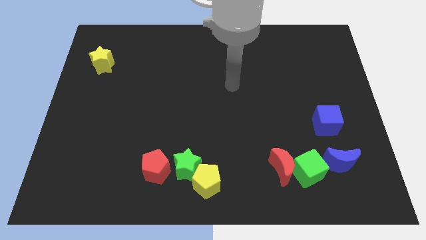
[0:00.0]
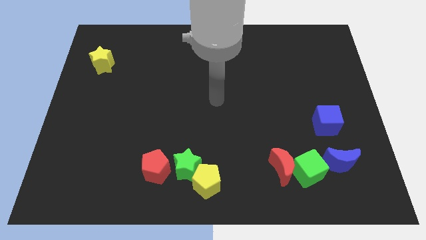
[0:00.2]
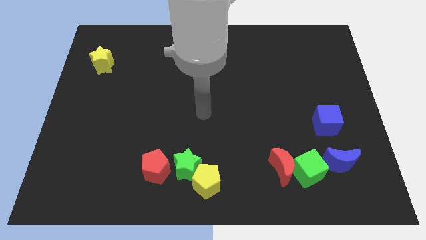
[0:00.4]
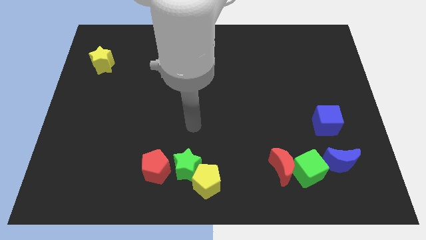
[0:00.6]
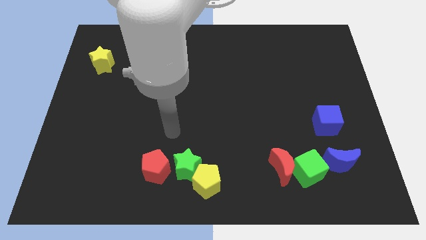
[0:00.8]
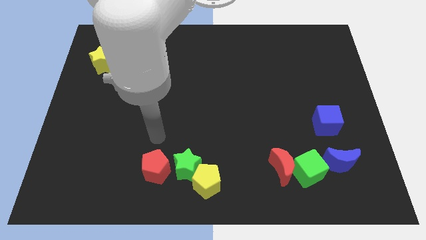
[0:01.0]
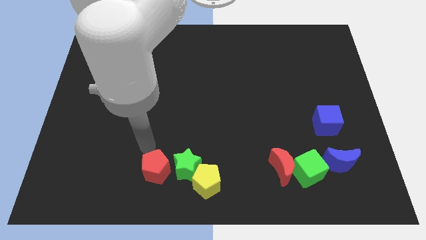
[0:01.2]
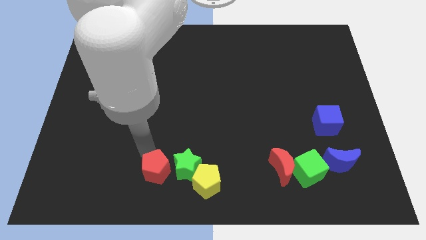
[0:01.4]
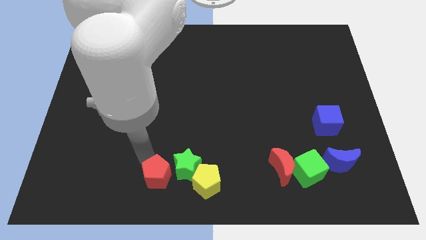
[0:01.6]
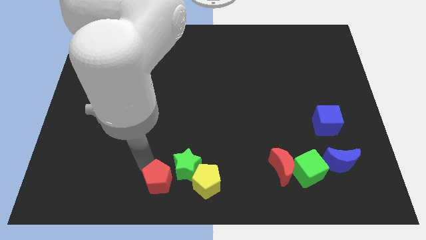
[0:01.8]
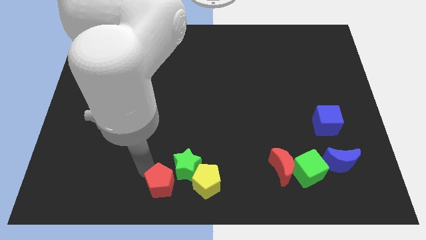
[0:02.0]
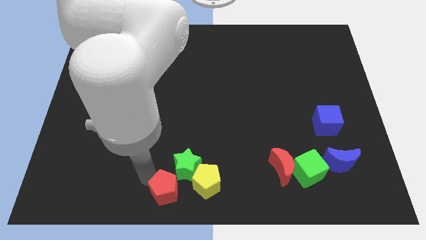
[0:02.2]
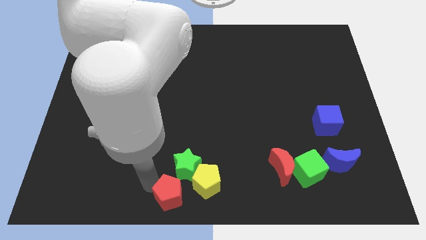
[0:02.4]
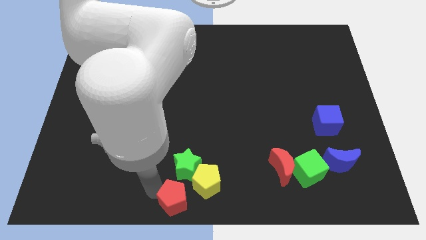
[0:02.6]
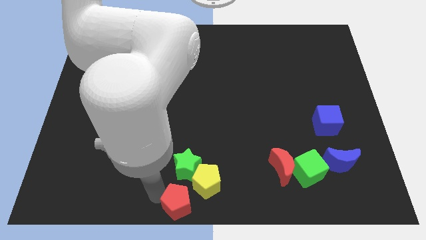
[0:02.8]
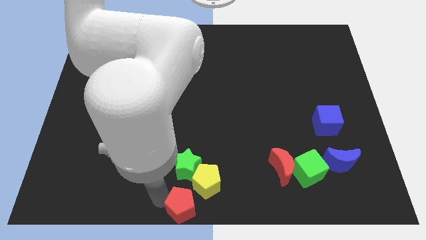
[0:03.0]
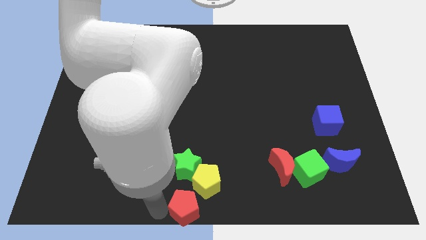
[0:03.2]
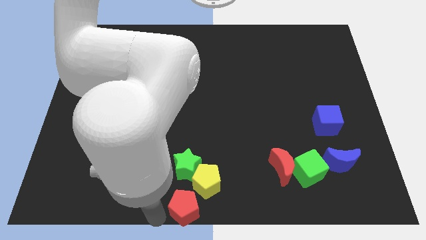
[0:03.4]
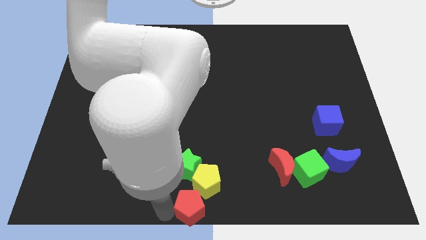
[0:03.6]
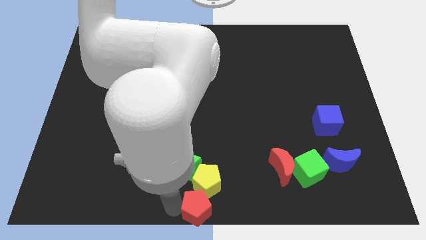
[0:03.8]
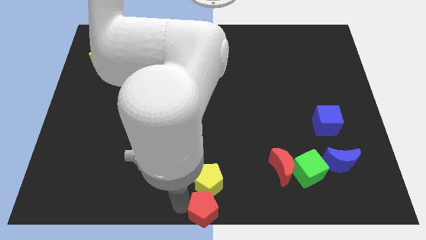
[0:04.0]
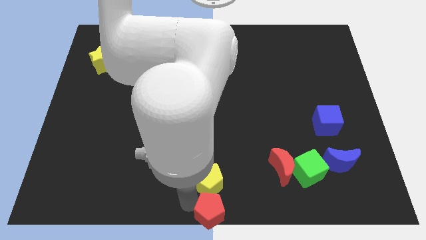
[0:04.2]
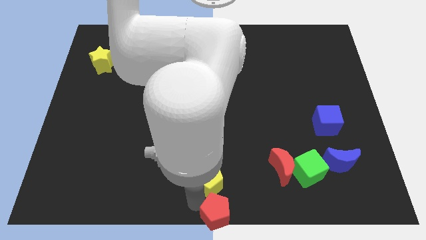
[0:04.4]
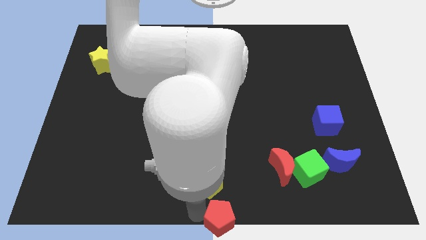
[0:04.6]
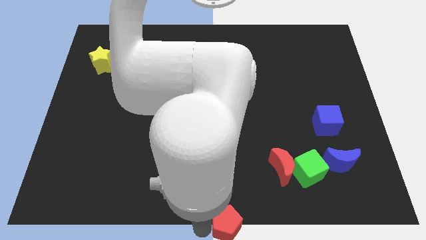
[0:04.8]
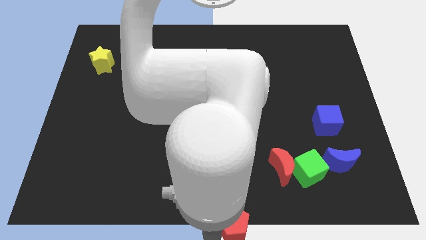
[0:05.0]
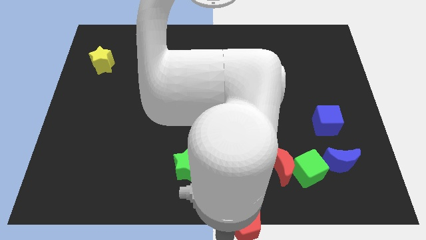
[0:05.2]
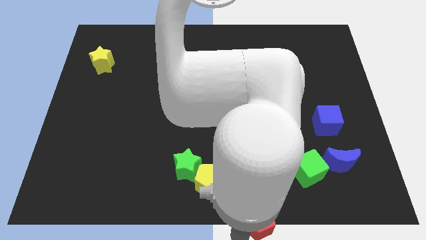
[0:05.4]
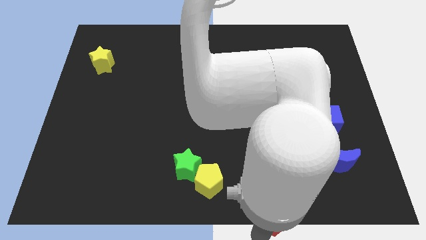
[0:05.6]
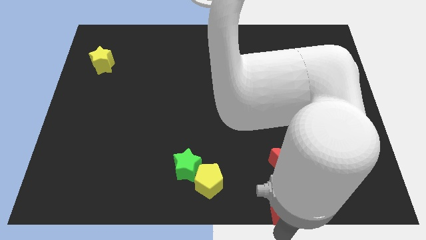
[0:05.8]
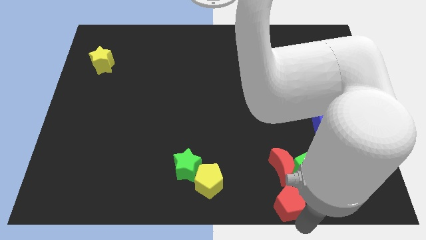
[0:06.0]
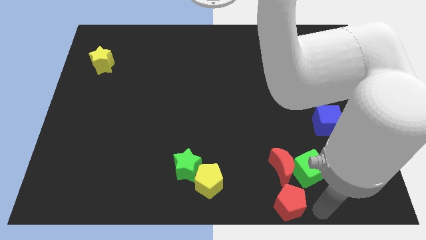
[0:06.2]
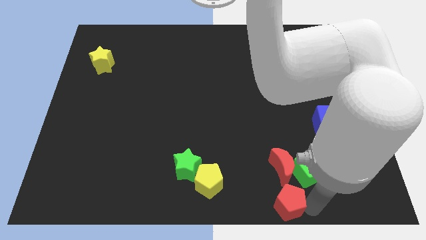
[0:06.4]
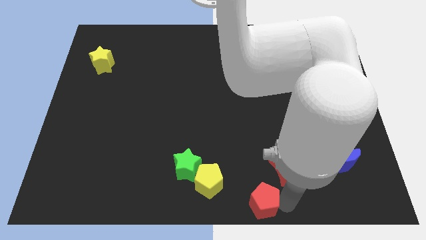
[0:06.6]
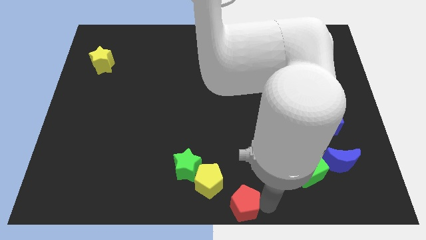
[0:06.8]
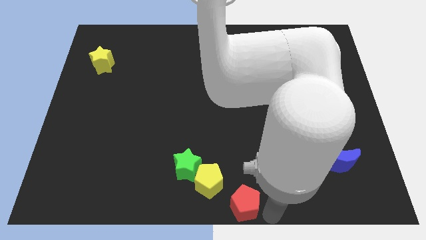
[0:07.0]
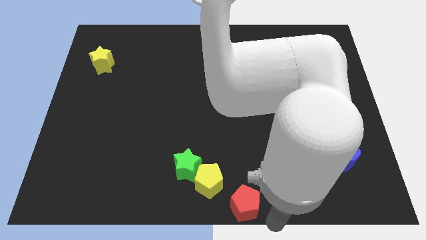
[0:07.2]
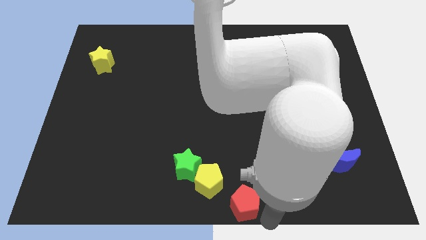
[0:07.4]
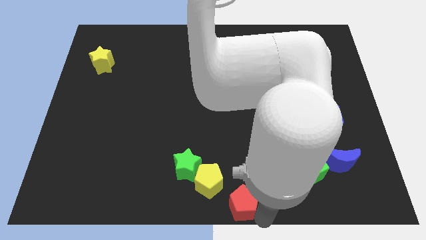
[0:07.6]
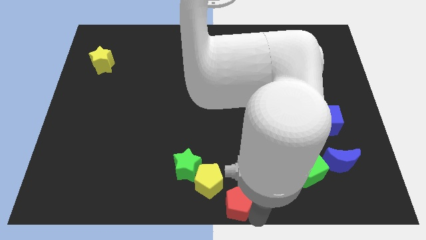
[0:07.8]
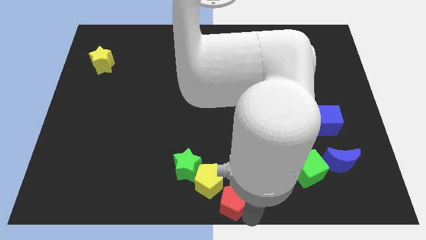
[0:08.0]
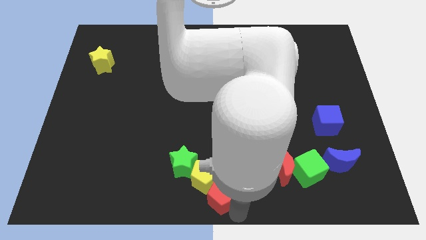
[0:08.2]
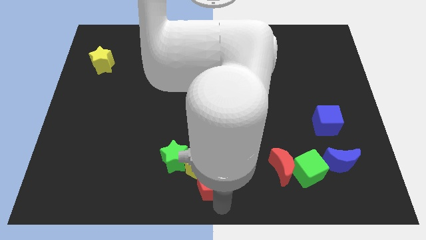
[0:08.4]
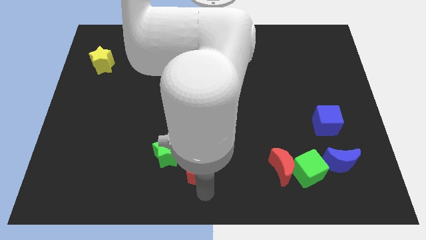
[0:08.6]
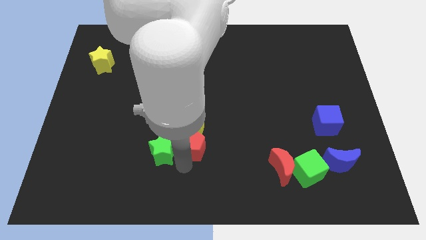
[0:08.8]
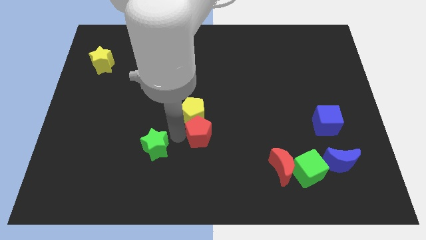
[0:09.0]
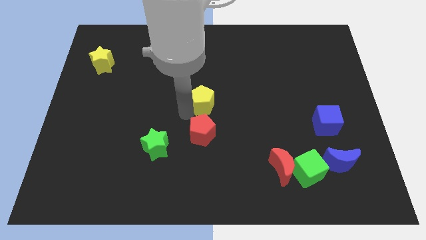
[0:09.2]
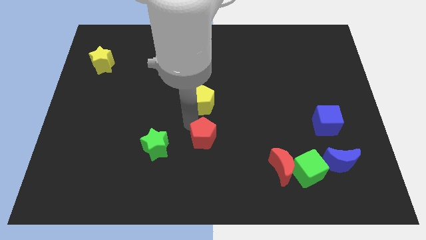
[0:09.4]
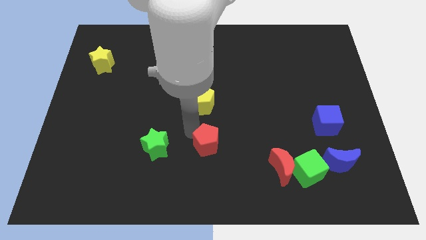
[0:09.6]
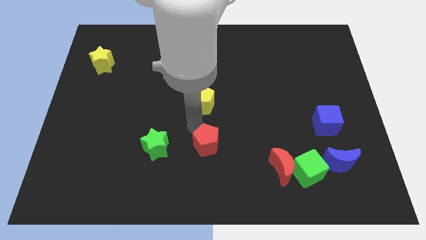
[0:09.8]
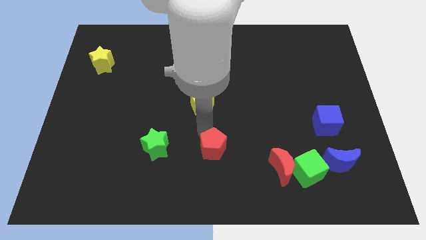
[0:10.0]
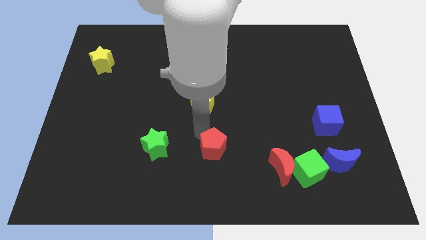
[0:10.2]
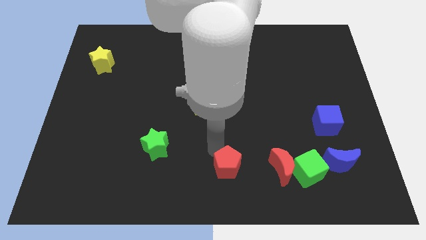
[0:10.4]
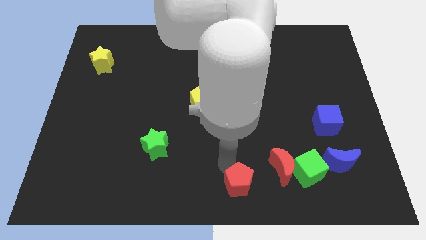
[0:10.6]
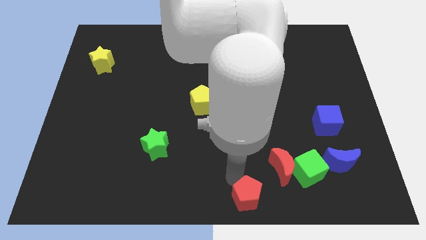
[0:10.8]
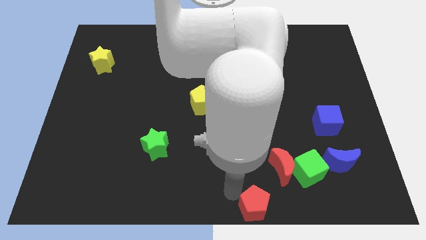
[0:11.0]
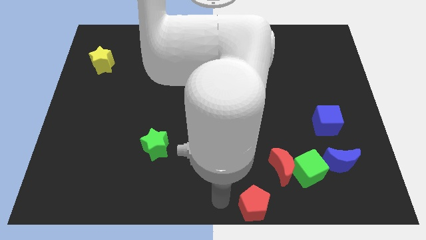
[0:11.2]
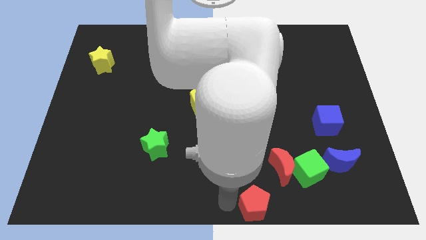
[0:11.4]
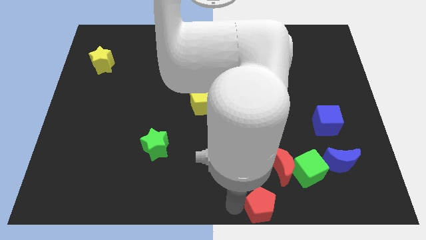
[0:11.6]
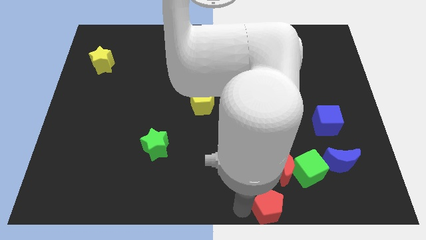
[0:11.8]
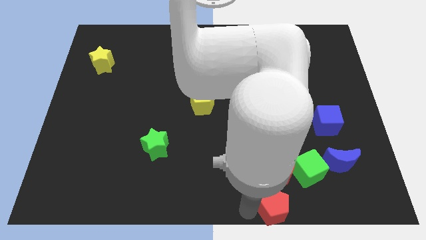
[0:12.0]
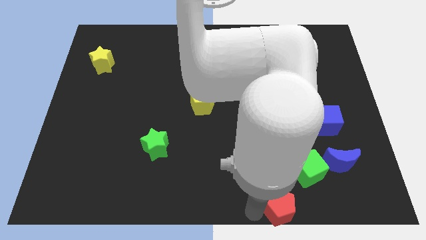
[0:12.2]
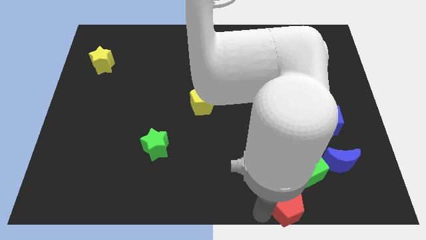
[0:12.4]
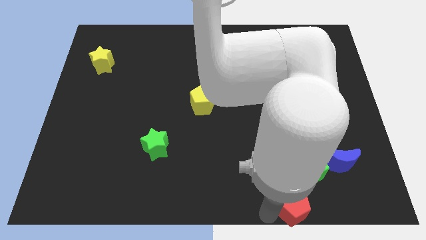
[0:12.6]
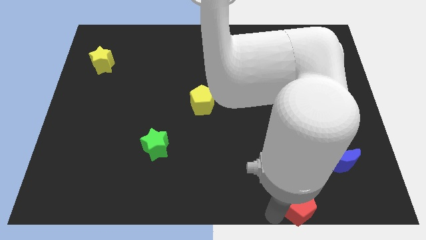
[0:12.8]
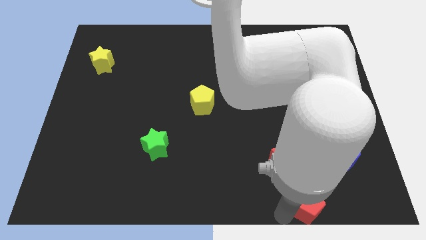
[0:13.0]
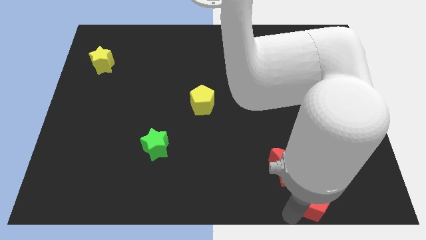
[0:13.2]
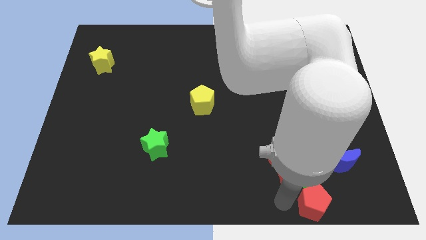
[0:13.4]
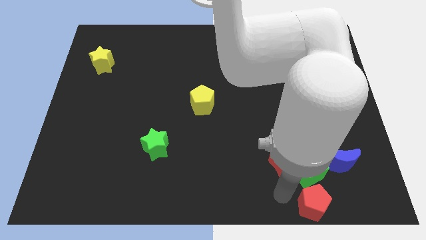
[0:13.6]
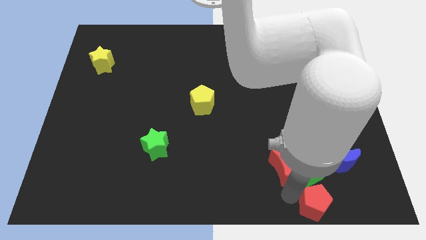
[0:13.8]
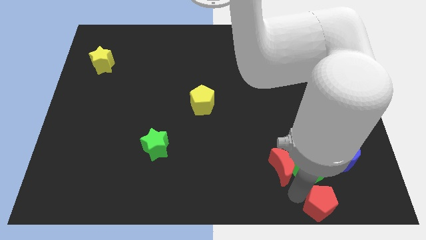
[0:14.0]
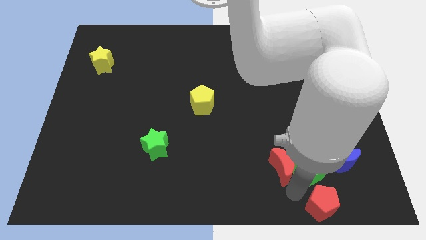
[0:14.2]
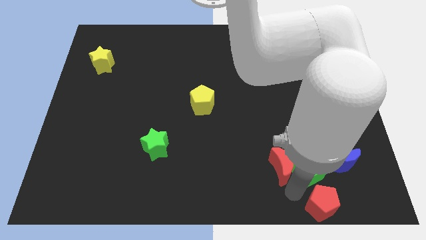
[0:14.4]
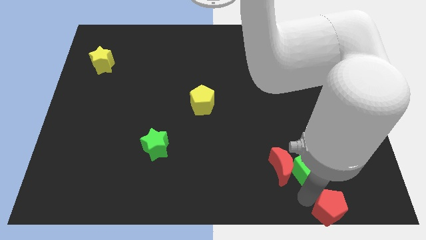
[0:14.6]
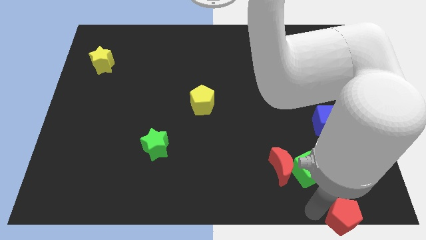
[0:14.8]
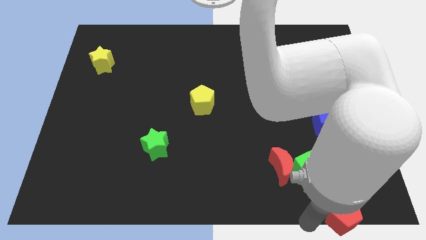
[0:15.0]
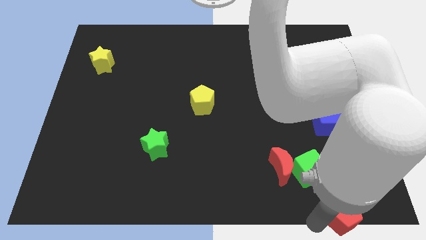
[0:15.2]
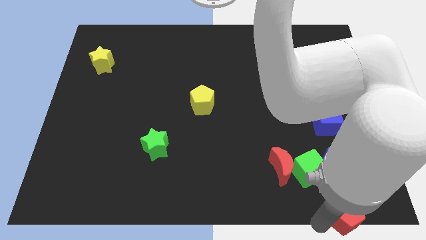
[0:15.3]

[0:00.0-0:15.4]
push the red pentagon to the lower right corner
